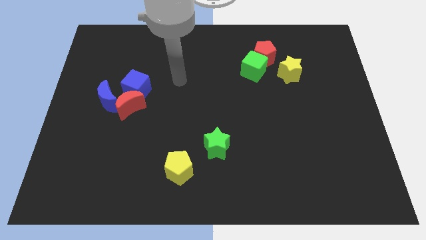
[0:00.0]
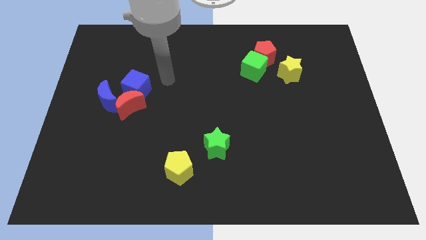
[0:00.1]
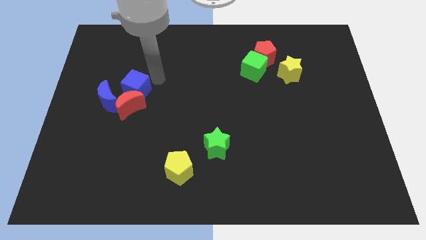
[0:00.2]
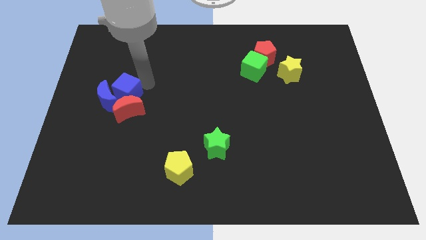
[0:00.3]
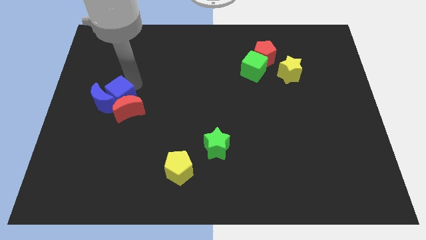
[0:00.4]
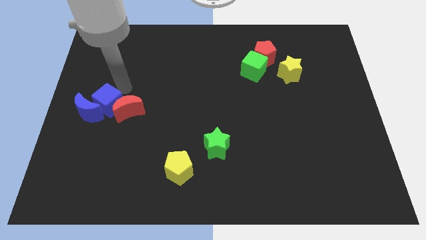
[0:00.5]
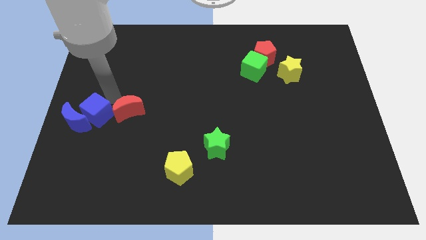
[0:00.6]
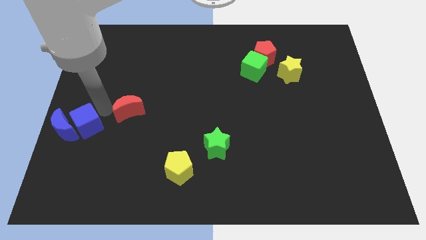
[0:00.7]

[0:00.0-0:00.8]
pull the red moon apart from the blue cube and blue moon

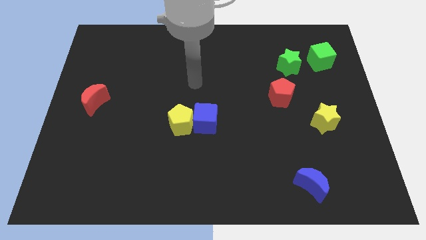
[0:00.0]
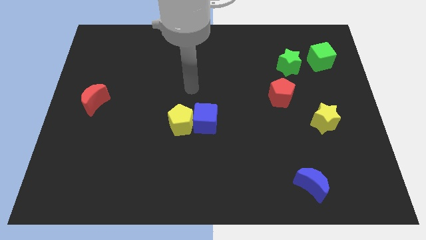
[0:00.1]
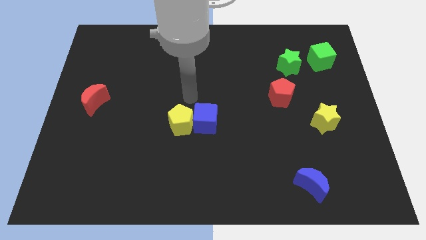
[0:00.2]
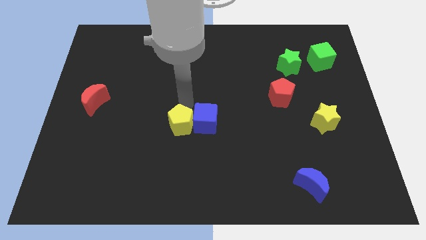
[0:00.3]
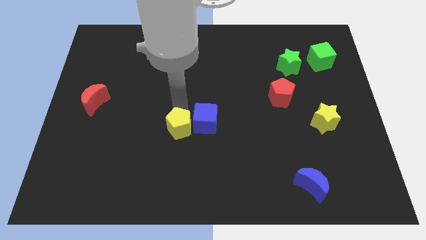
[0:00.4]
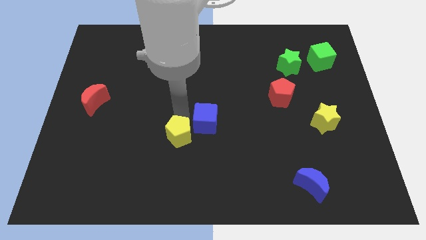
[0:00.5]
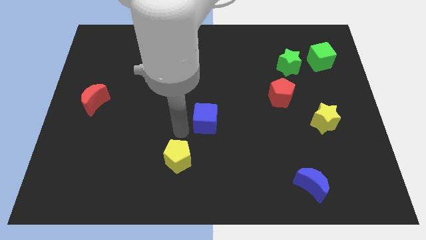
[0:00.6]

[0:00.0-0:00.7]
separate the blue cube from the yellow pentagon

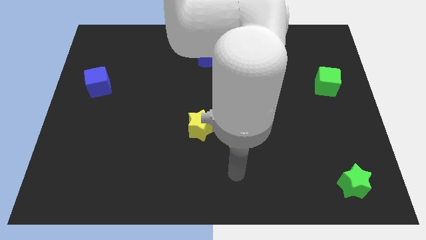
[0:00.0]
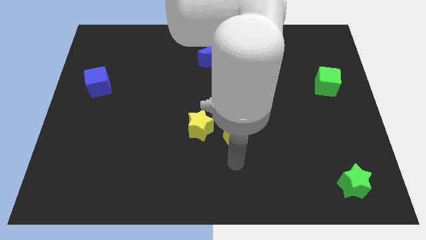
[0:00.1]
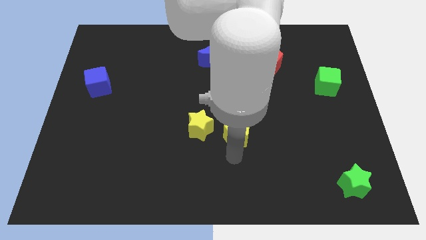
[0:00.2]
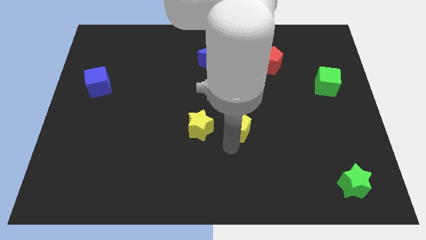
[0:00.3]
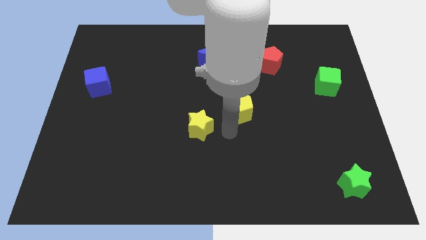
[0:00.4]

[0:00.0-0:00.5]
pull the yellow star apart from the yellow pentagon

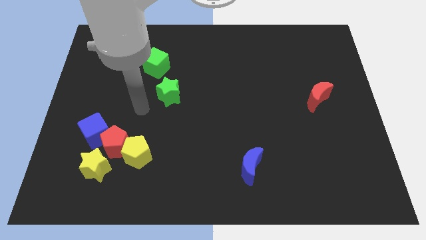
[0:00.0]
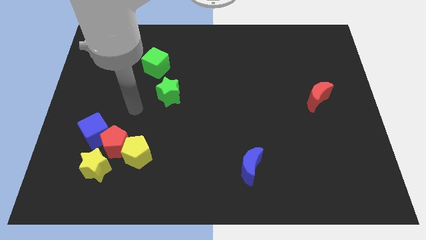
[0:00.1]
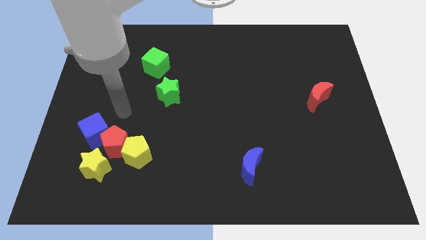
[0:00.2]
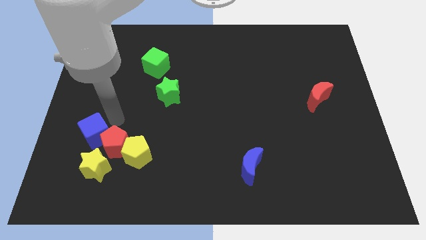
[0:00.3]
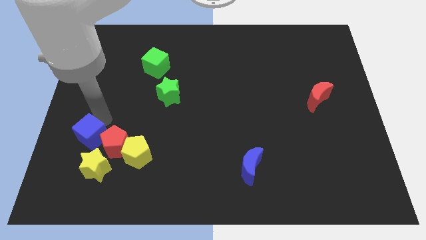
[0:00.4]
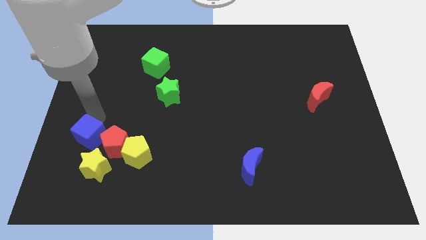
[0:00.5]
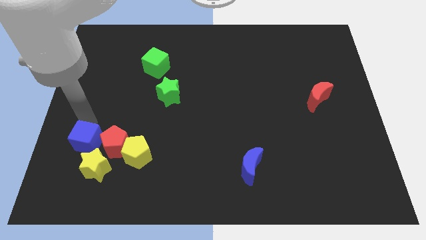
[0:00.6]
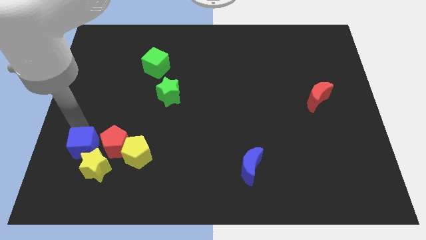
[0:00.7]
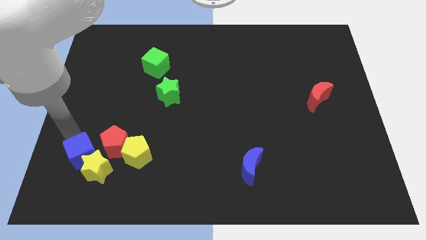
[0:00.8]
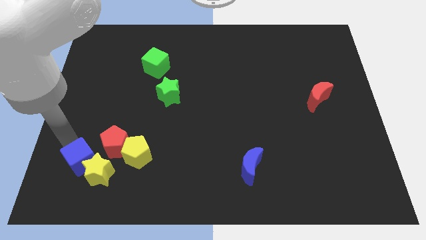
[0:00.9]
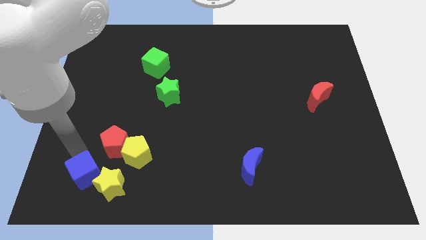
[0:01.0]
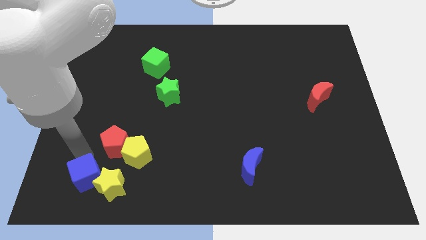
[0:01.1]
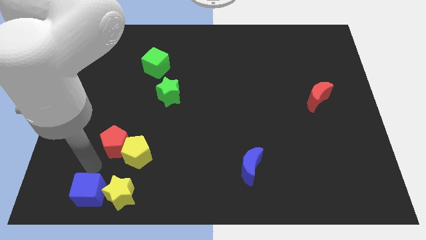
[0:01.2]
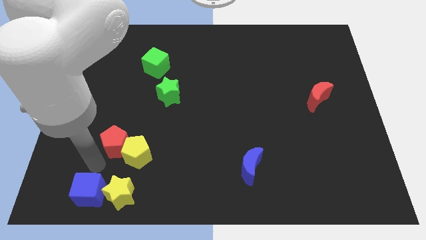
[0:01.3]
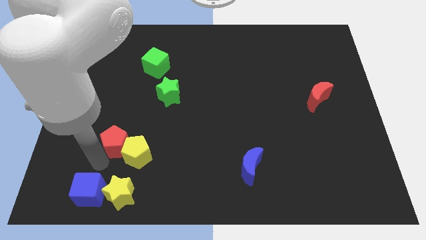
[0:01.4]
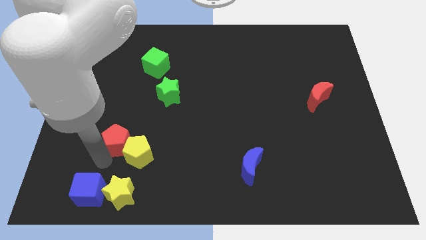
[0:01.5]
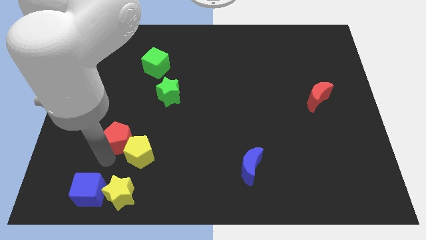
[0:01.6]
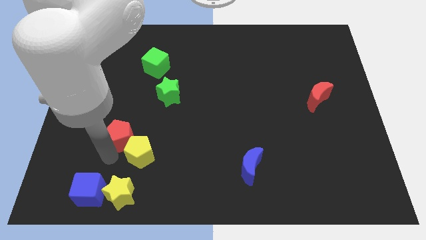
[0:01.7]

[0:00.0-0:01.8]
move the red pentagon away from the yellow pentagon, blue cube, and yellow star

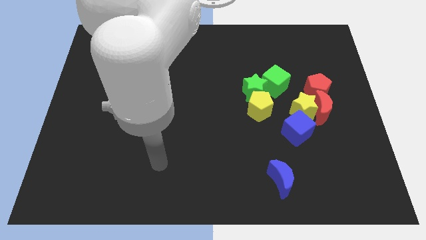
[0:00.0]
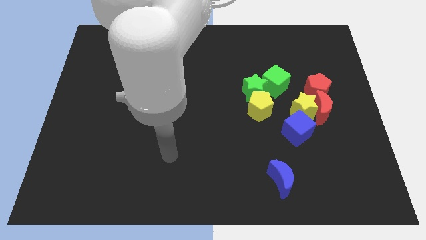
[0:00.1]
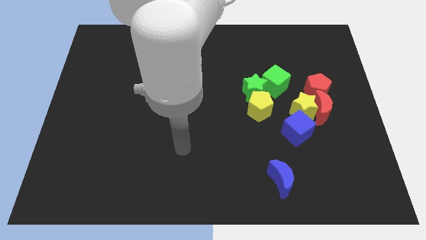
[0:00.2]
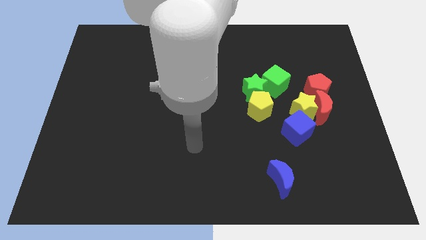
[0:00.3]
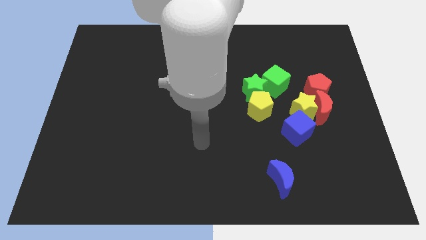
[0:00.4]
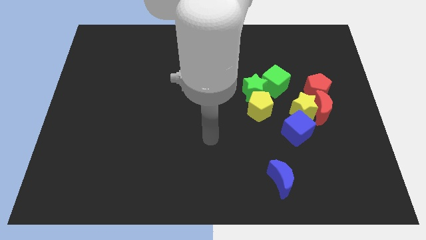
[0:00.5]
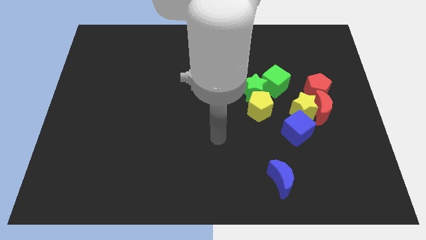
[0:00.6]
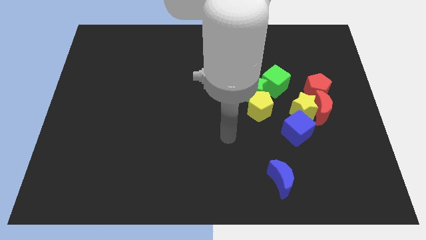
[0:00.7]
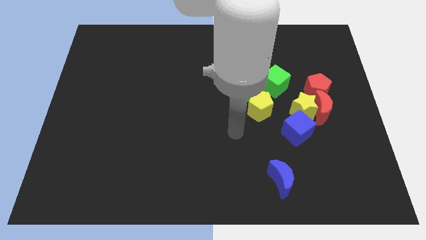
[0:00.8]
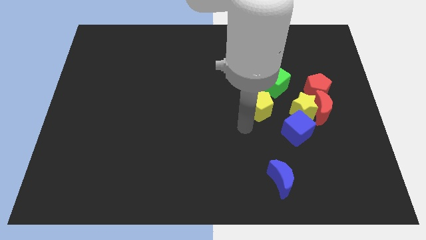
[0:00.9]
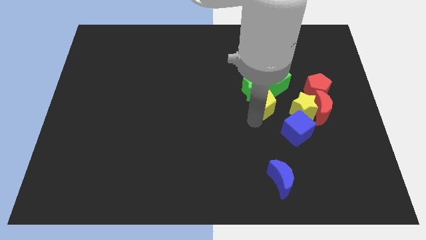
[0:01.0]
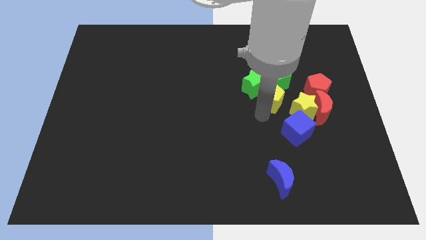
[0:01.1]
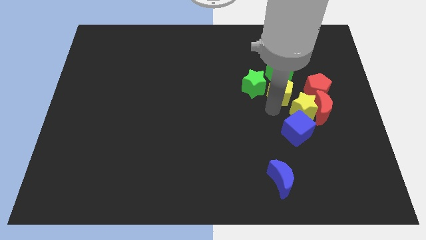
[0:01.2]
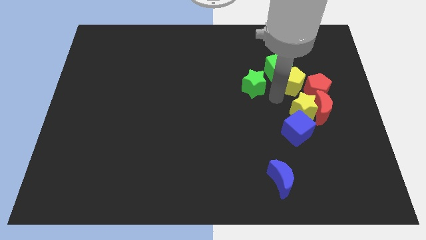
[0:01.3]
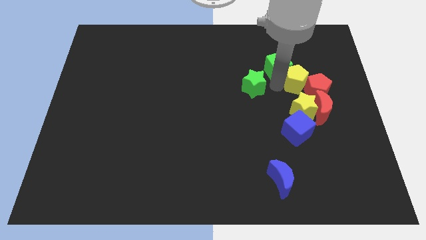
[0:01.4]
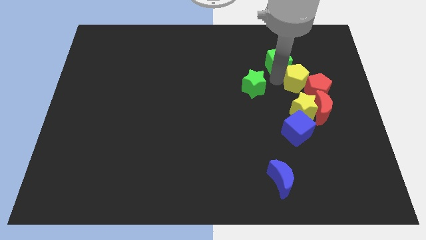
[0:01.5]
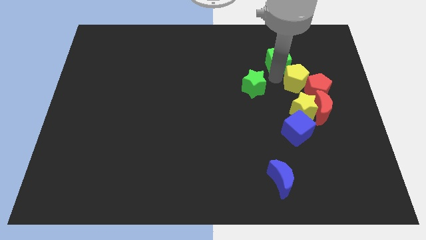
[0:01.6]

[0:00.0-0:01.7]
move the green star away from the yellow pentagon and green cube

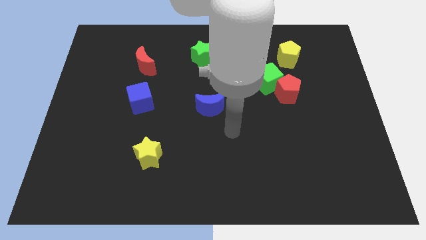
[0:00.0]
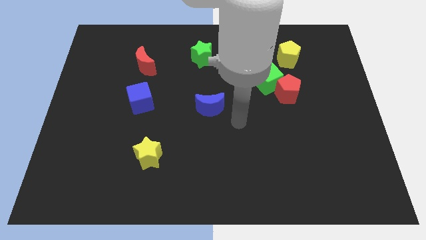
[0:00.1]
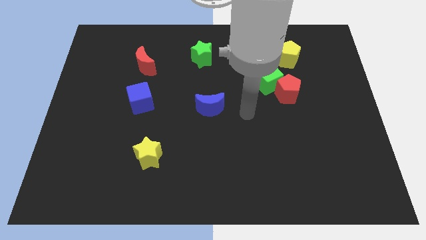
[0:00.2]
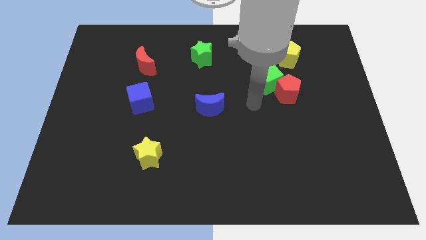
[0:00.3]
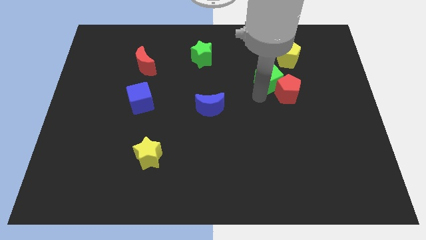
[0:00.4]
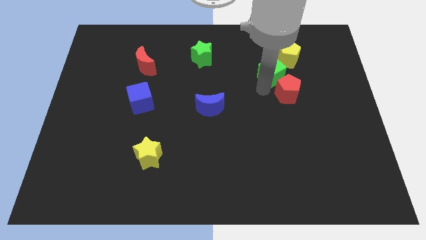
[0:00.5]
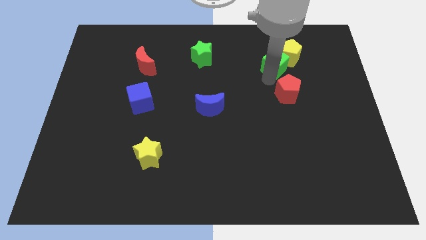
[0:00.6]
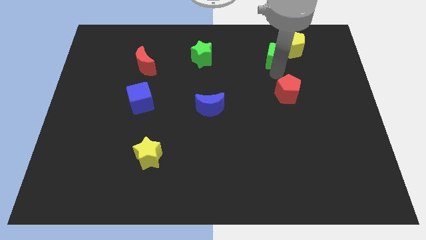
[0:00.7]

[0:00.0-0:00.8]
pull the red pentagon apart from the green cube

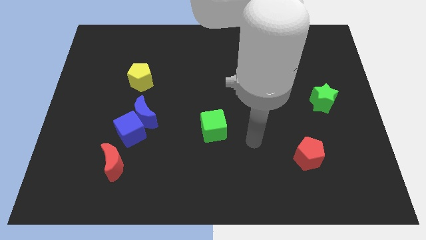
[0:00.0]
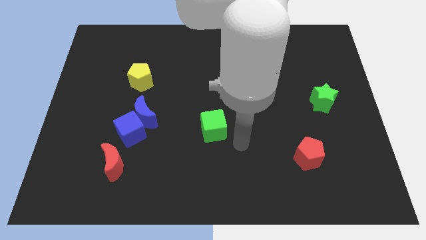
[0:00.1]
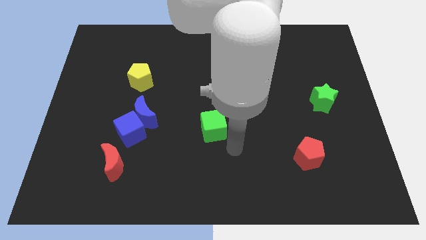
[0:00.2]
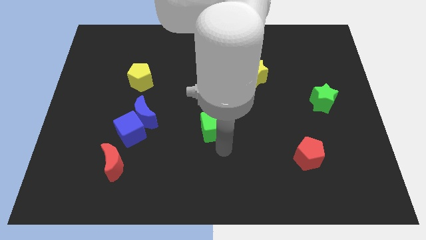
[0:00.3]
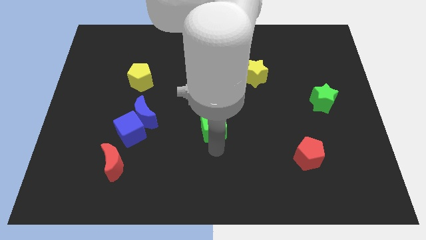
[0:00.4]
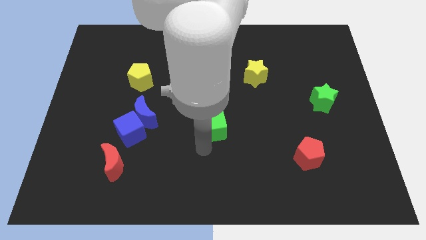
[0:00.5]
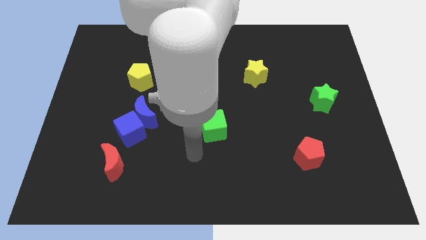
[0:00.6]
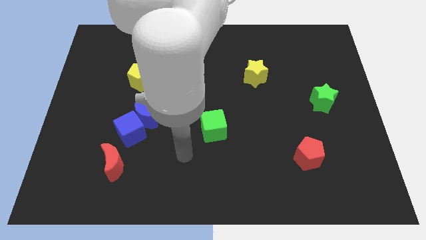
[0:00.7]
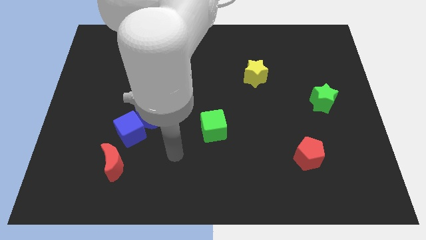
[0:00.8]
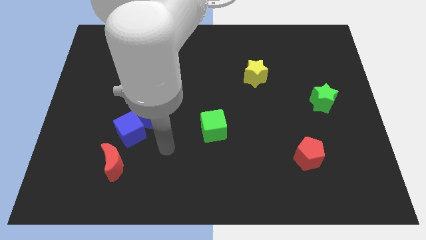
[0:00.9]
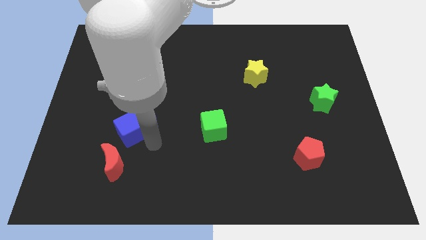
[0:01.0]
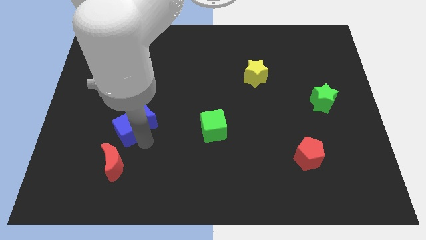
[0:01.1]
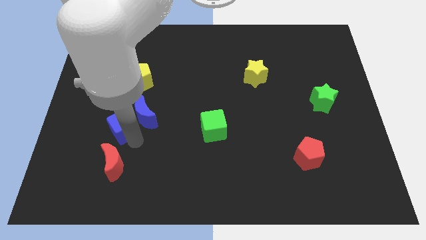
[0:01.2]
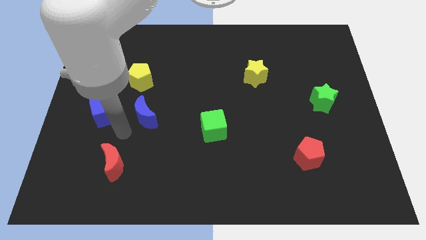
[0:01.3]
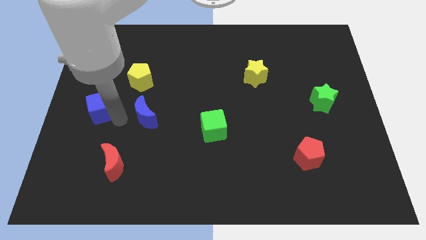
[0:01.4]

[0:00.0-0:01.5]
pull the blue moon apart from the blue cube

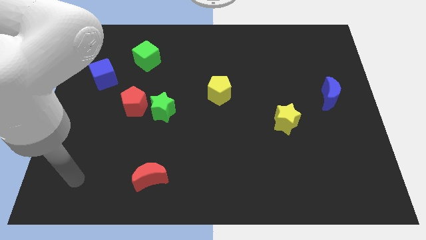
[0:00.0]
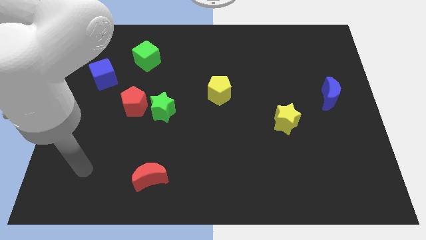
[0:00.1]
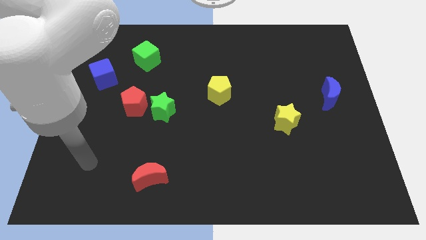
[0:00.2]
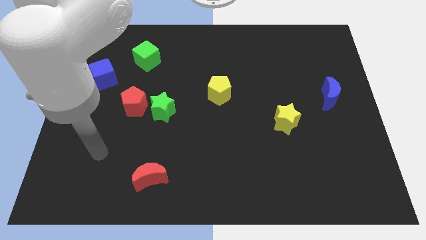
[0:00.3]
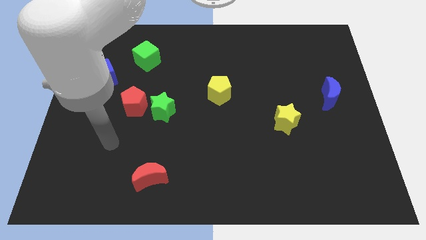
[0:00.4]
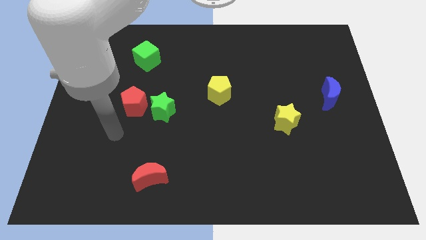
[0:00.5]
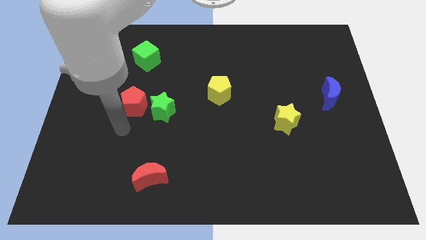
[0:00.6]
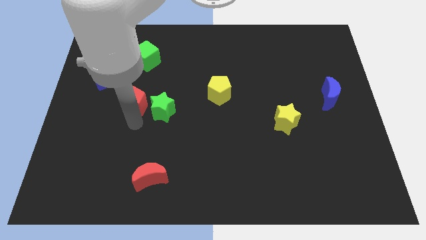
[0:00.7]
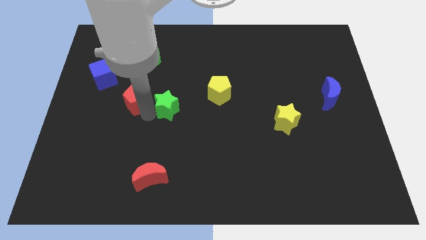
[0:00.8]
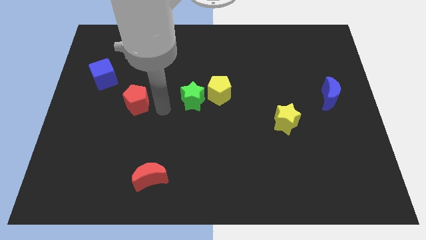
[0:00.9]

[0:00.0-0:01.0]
separate the red pentagon from the green star

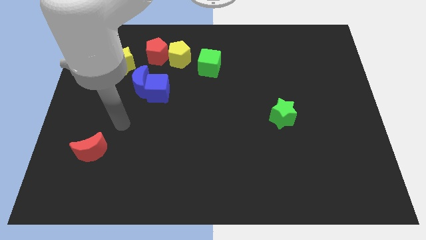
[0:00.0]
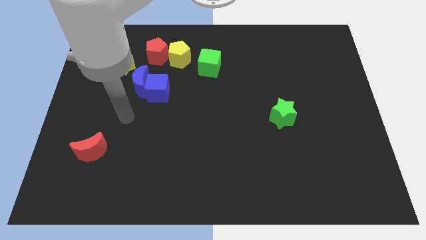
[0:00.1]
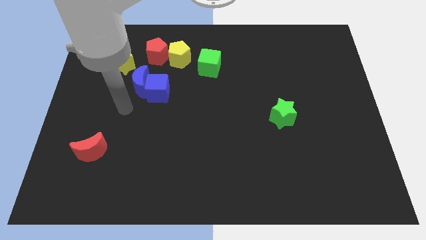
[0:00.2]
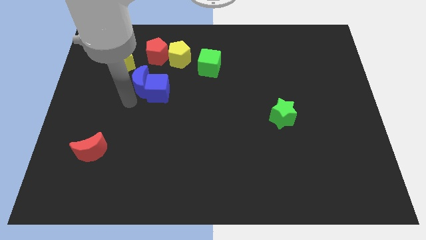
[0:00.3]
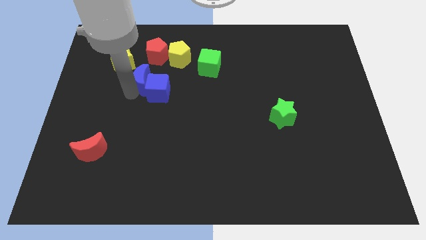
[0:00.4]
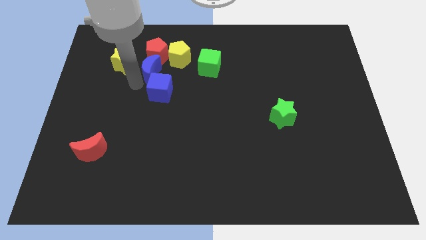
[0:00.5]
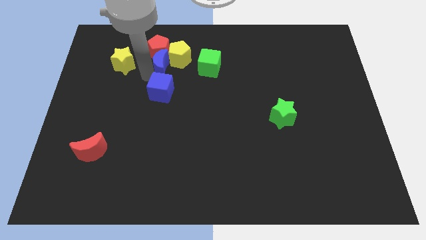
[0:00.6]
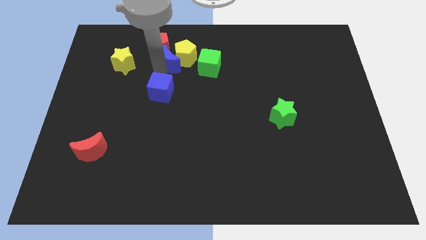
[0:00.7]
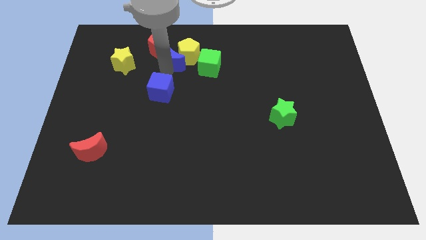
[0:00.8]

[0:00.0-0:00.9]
pull the blue cube apart from the blue moon
